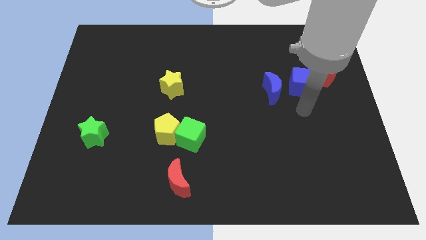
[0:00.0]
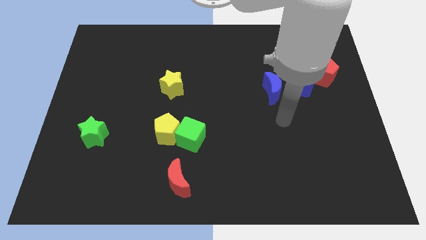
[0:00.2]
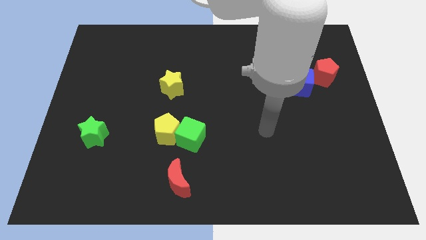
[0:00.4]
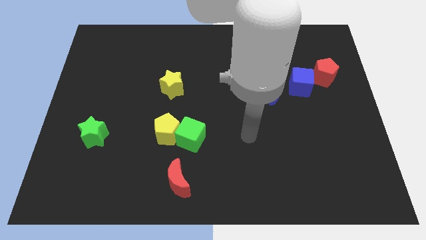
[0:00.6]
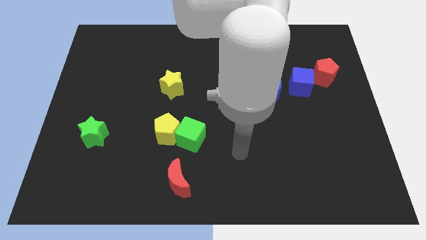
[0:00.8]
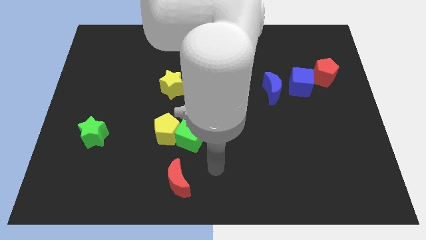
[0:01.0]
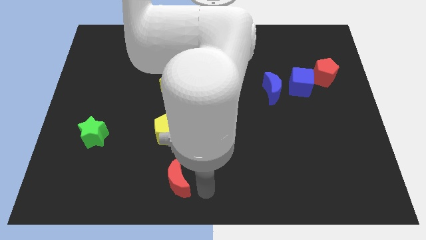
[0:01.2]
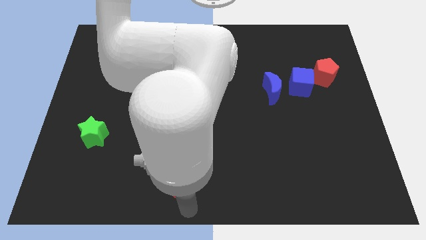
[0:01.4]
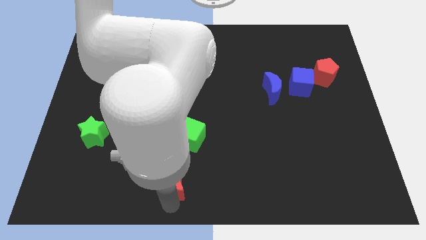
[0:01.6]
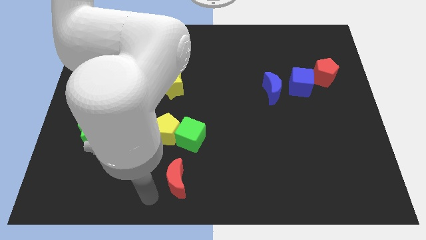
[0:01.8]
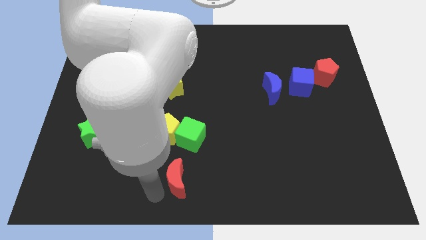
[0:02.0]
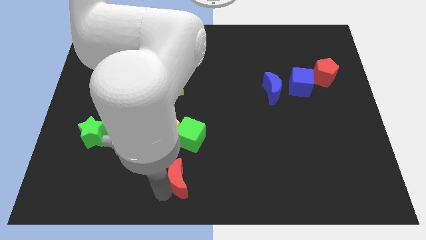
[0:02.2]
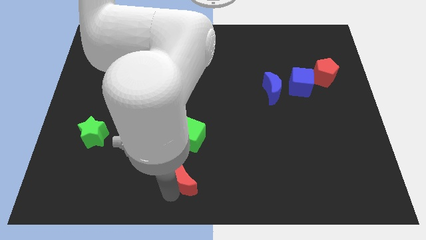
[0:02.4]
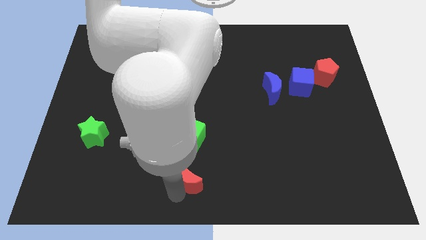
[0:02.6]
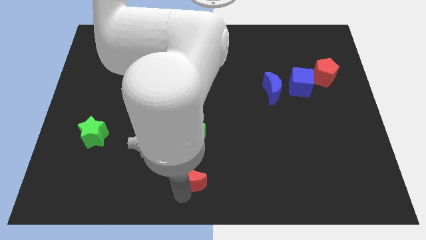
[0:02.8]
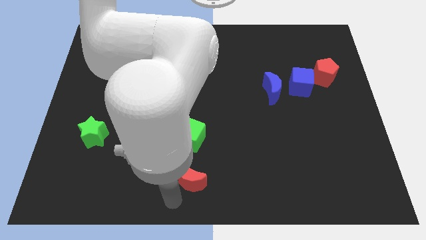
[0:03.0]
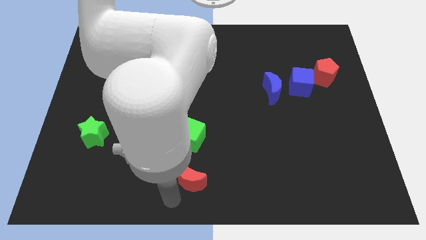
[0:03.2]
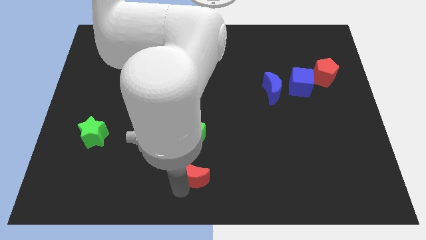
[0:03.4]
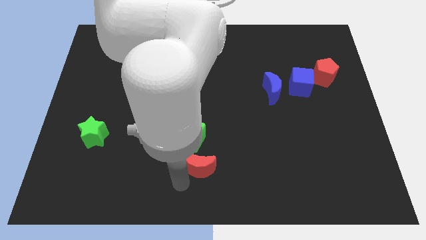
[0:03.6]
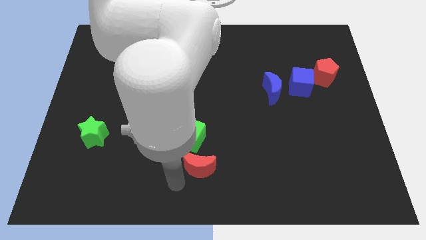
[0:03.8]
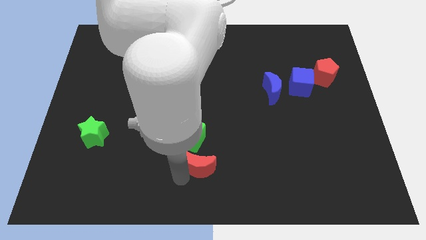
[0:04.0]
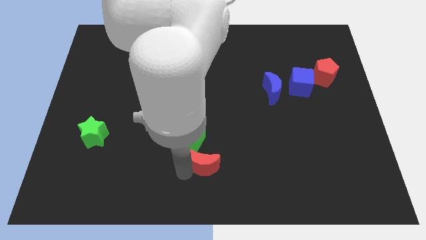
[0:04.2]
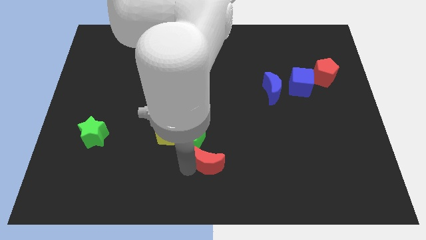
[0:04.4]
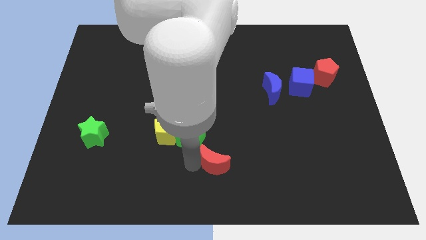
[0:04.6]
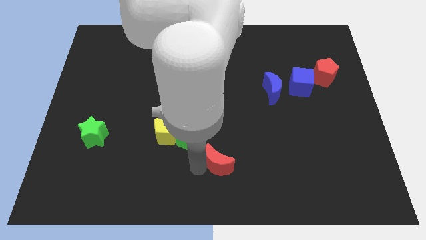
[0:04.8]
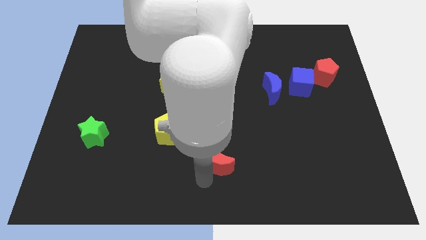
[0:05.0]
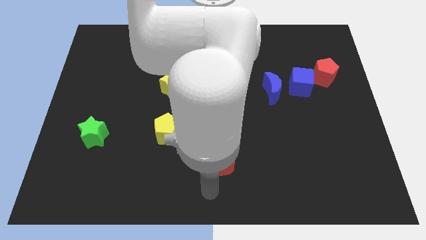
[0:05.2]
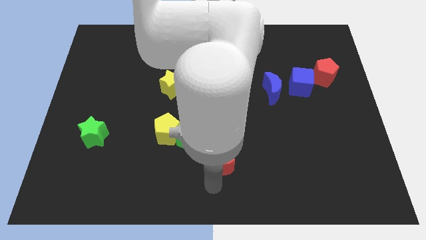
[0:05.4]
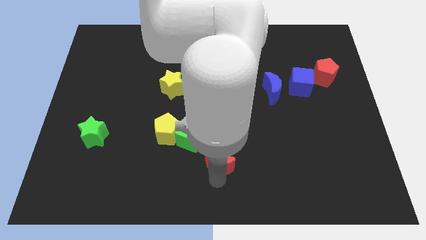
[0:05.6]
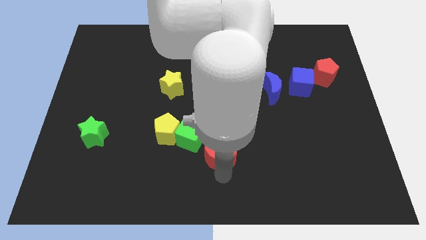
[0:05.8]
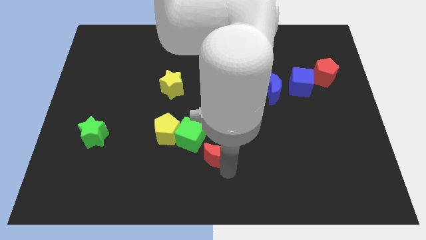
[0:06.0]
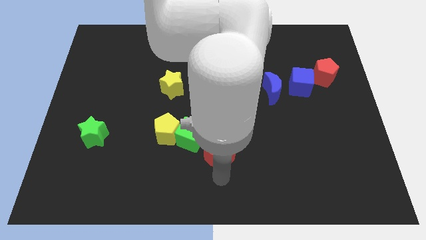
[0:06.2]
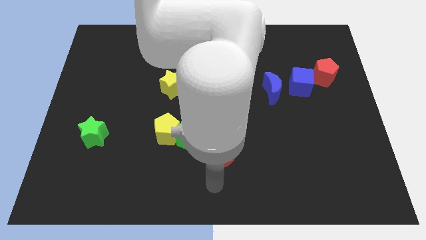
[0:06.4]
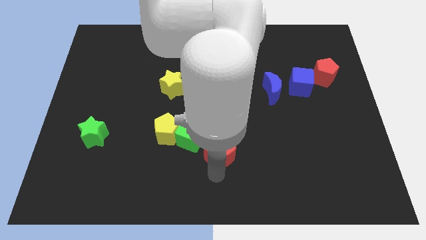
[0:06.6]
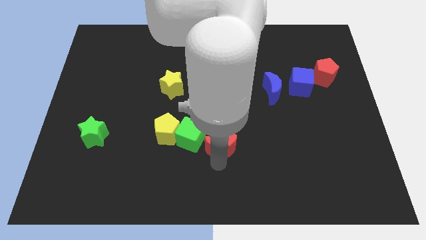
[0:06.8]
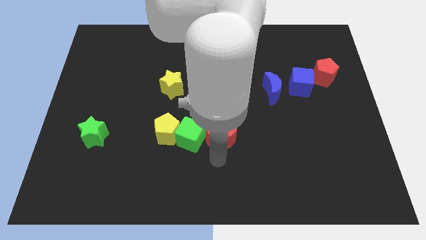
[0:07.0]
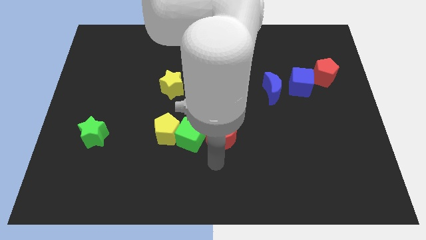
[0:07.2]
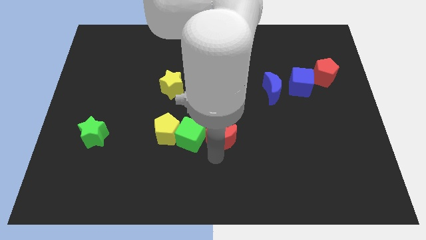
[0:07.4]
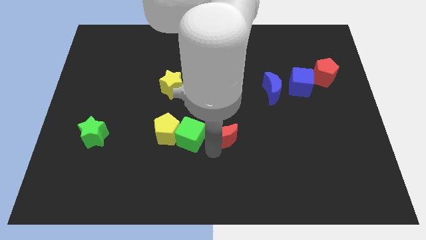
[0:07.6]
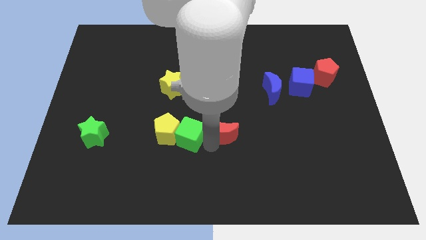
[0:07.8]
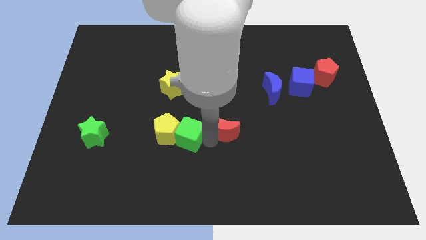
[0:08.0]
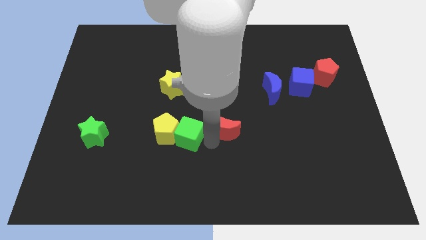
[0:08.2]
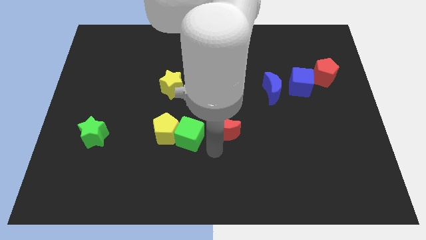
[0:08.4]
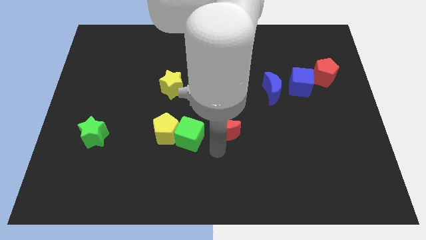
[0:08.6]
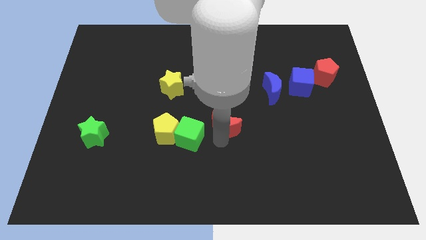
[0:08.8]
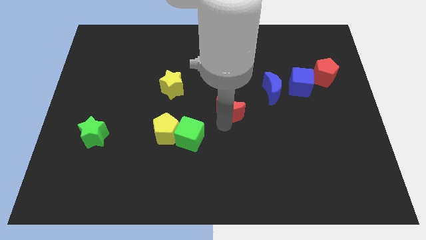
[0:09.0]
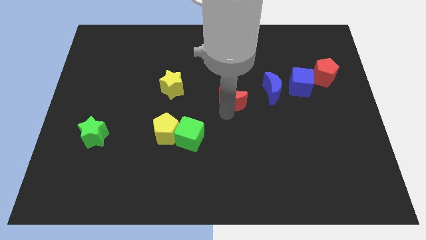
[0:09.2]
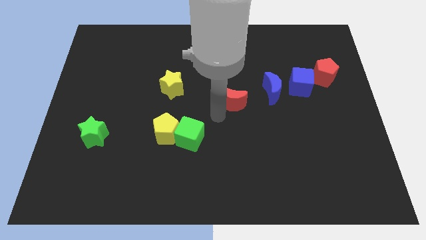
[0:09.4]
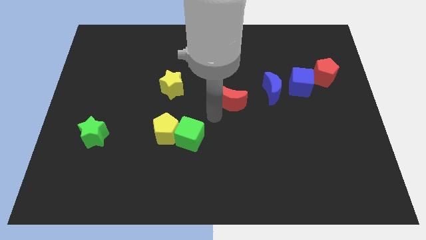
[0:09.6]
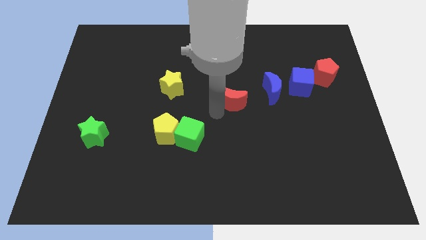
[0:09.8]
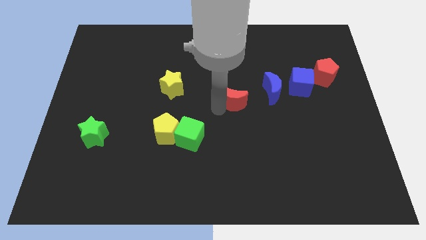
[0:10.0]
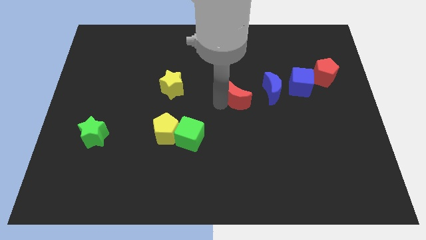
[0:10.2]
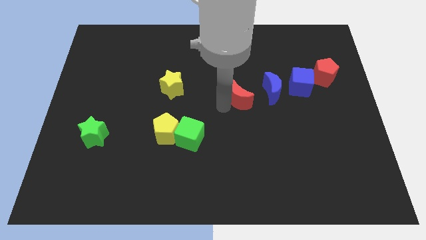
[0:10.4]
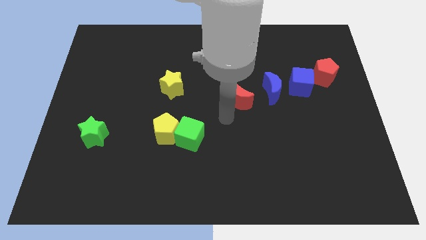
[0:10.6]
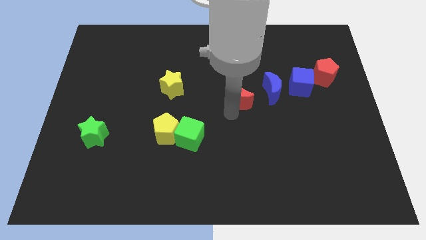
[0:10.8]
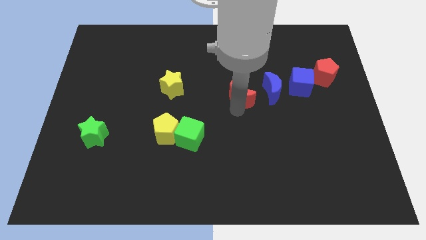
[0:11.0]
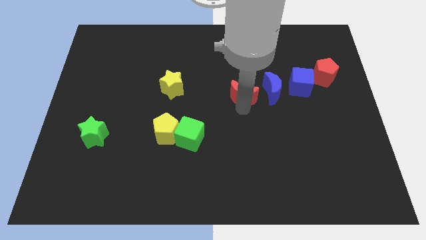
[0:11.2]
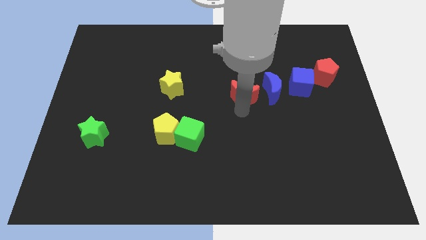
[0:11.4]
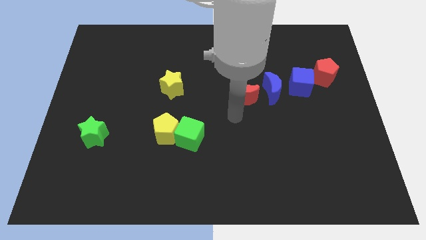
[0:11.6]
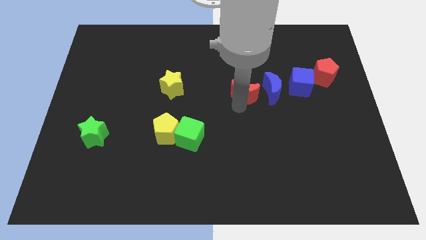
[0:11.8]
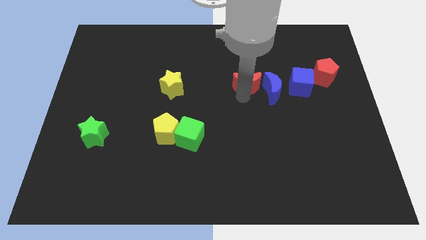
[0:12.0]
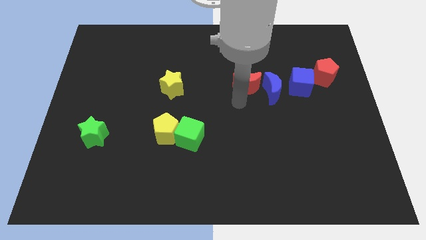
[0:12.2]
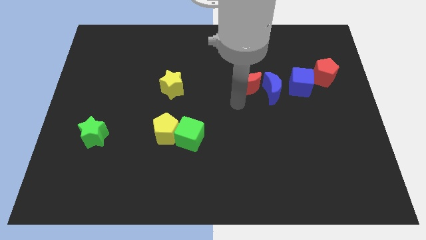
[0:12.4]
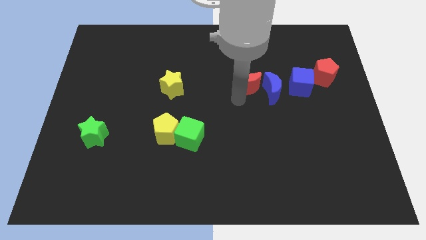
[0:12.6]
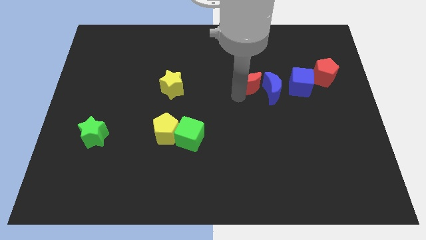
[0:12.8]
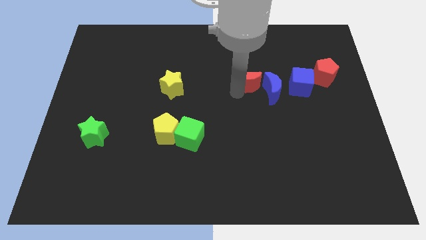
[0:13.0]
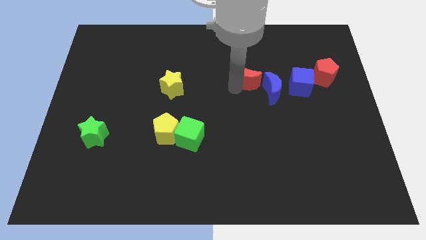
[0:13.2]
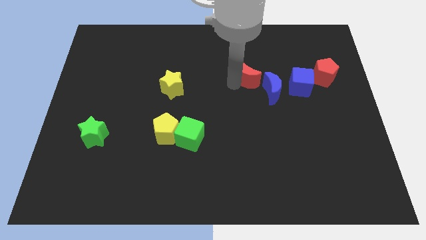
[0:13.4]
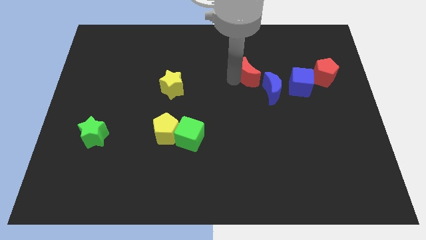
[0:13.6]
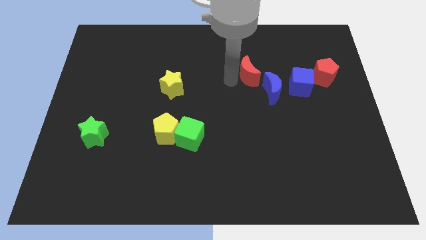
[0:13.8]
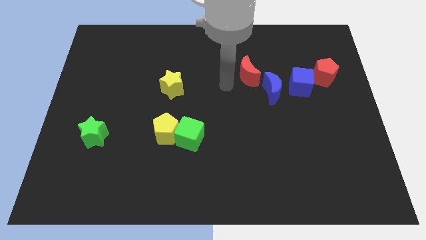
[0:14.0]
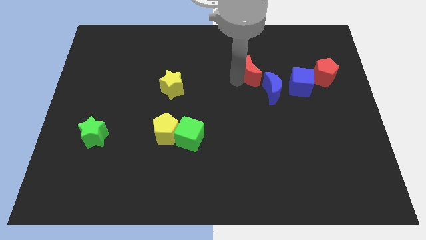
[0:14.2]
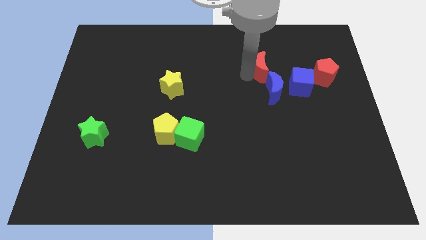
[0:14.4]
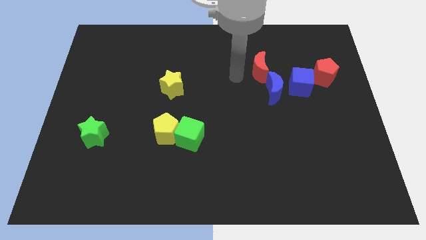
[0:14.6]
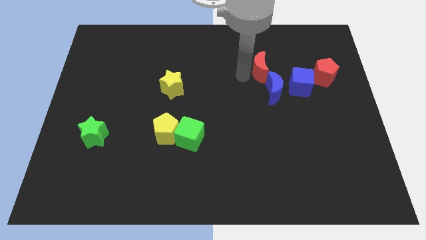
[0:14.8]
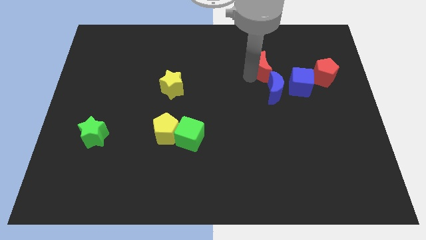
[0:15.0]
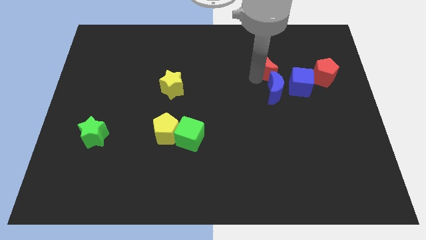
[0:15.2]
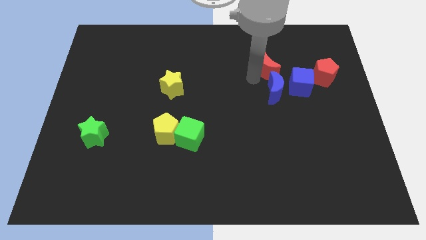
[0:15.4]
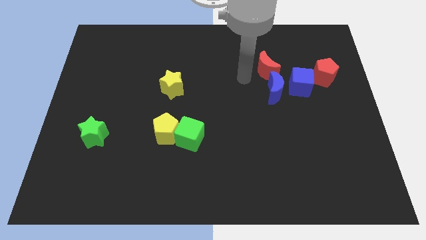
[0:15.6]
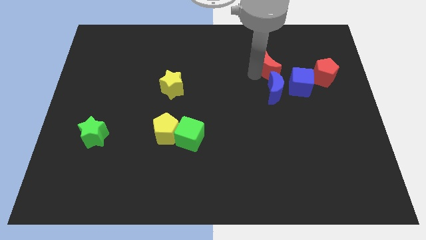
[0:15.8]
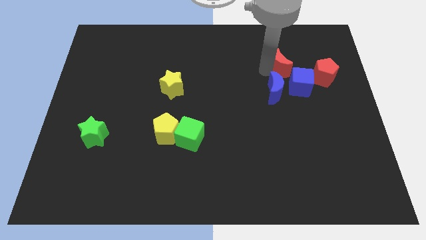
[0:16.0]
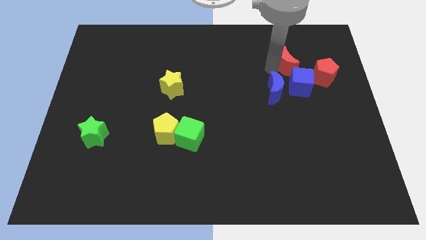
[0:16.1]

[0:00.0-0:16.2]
move the red moon diagonally up and to the left of the red pentagon
